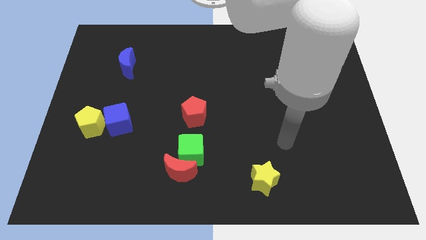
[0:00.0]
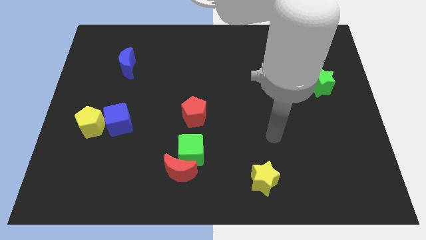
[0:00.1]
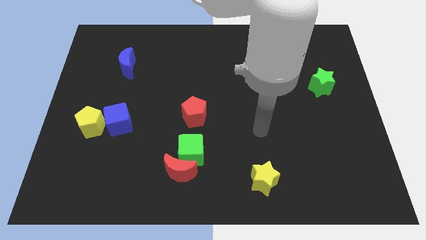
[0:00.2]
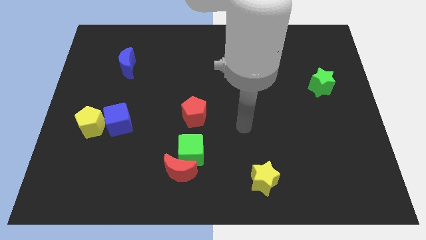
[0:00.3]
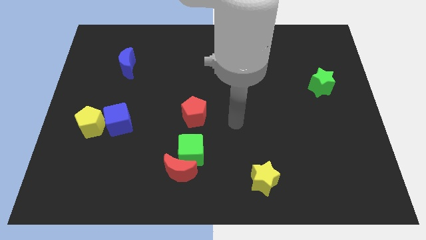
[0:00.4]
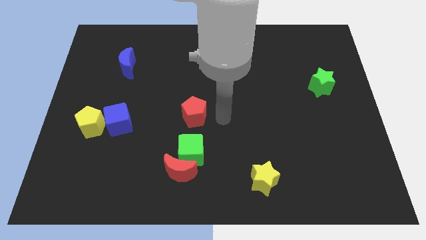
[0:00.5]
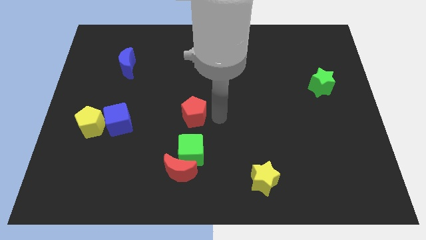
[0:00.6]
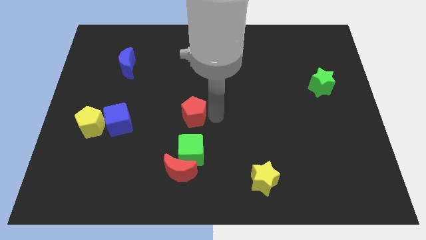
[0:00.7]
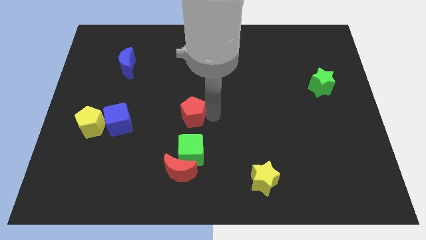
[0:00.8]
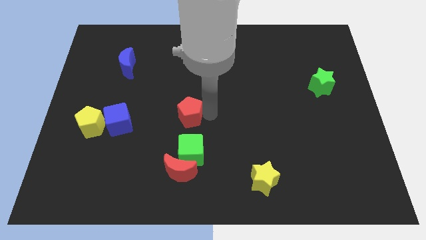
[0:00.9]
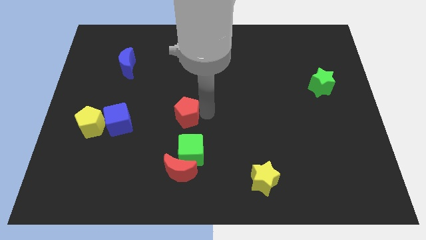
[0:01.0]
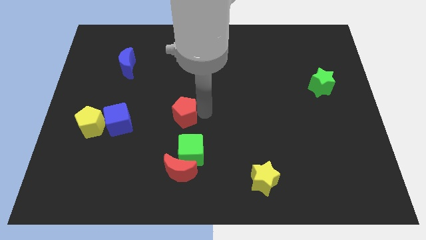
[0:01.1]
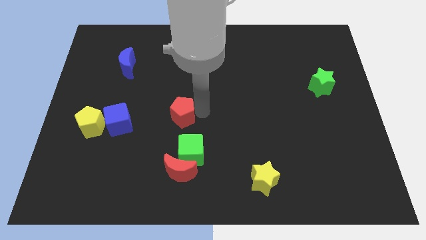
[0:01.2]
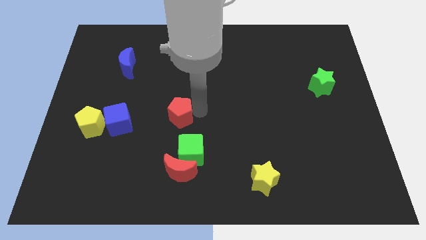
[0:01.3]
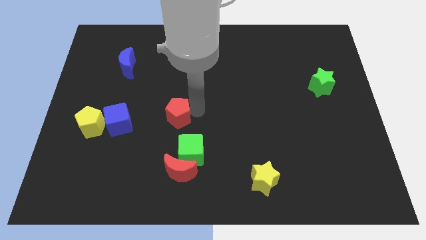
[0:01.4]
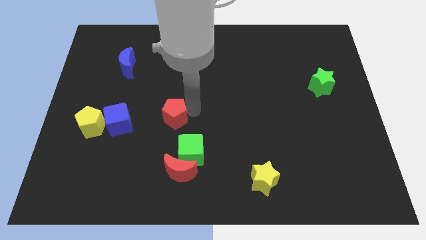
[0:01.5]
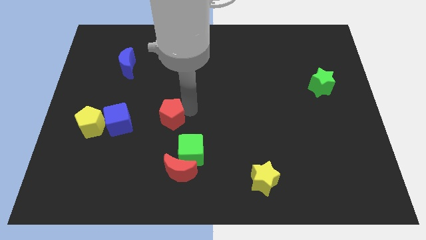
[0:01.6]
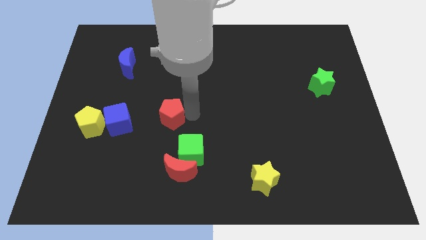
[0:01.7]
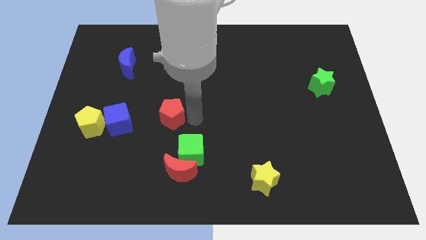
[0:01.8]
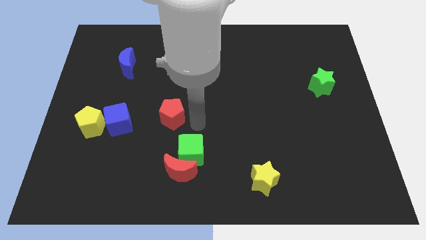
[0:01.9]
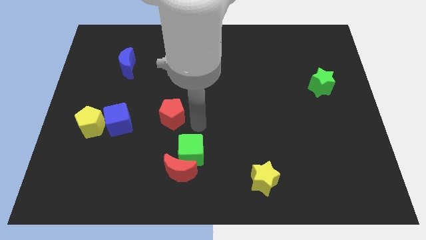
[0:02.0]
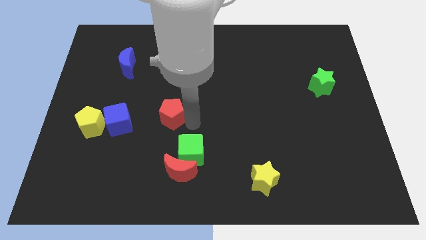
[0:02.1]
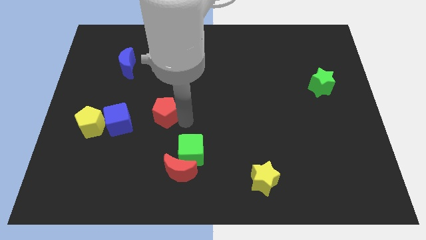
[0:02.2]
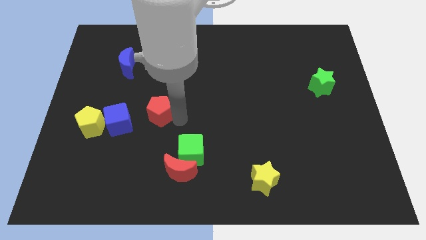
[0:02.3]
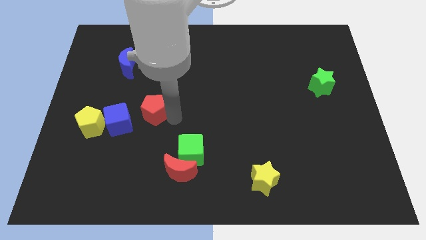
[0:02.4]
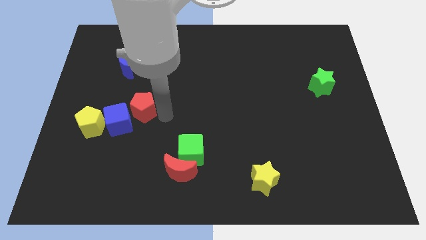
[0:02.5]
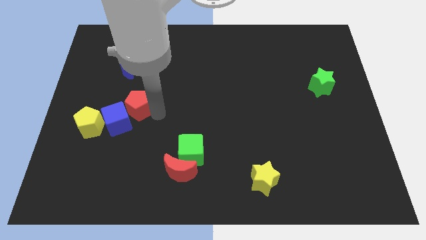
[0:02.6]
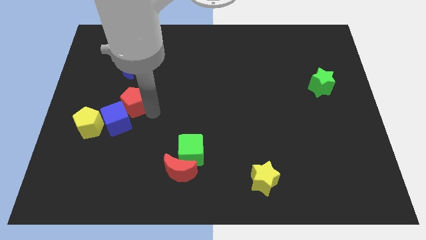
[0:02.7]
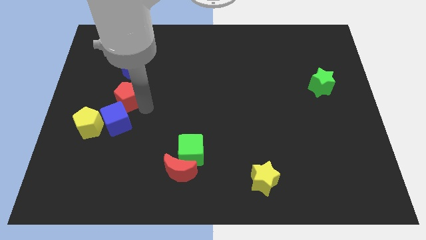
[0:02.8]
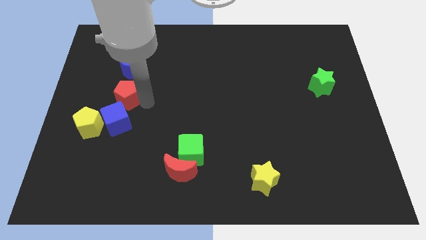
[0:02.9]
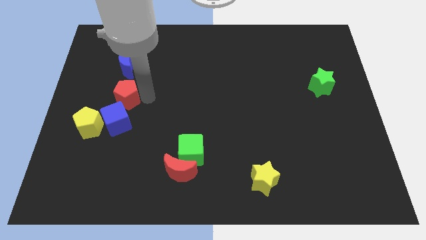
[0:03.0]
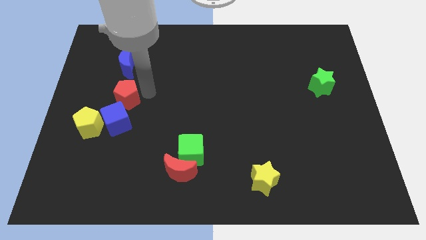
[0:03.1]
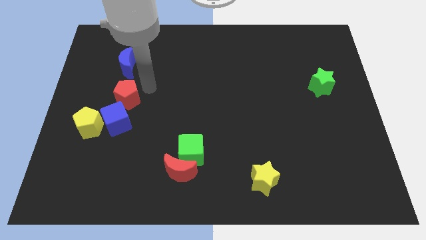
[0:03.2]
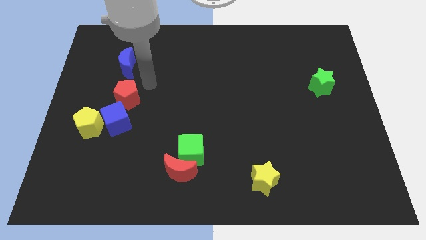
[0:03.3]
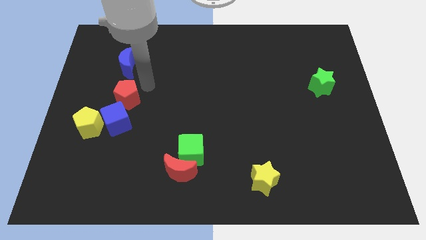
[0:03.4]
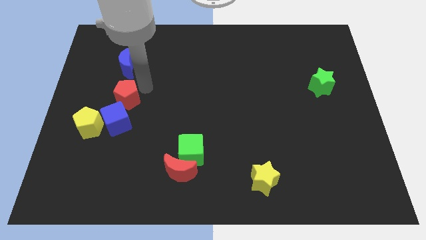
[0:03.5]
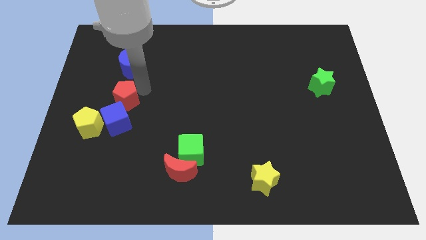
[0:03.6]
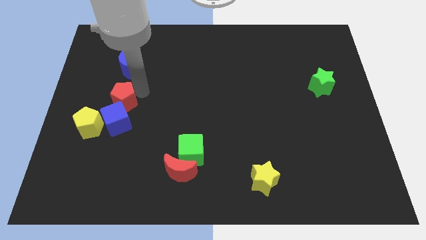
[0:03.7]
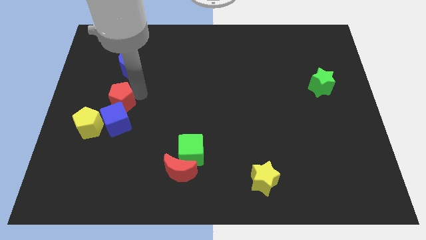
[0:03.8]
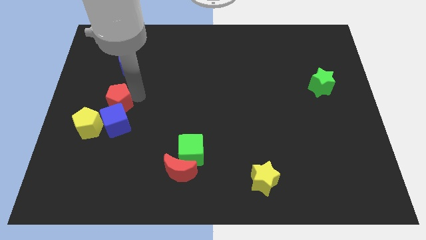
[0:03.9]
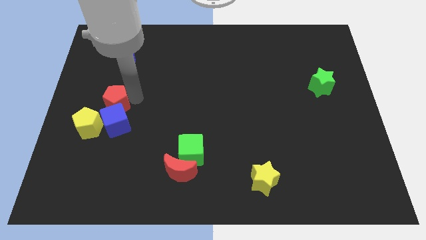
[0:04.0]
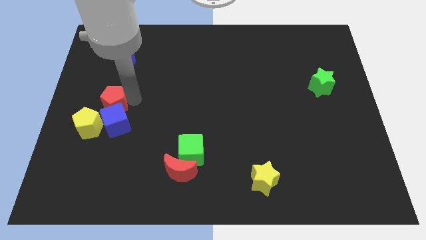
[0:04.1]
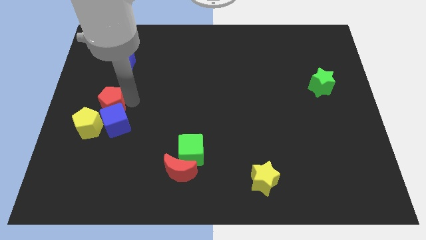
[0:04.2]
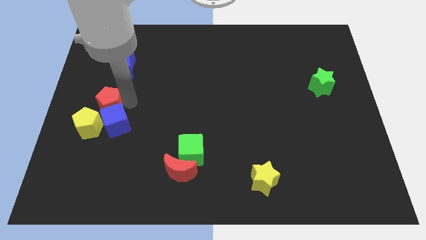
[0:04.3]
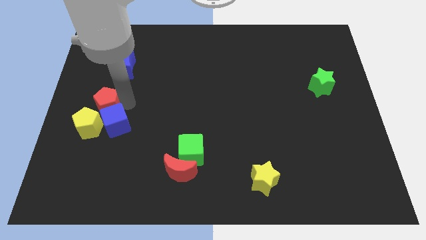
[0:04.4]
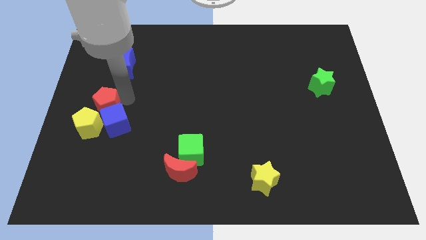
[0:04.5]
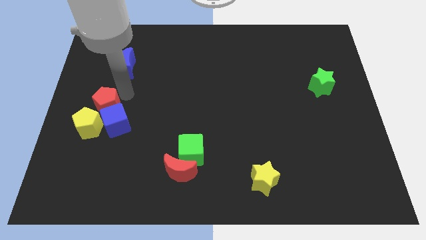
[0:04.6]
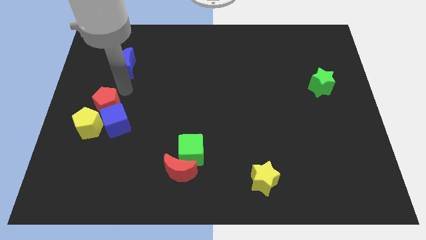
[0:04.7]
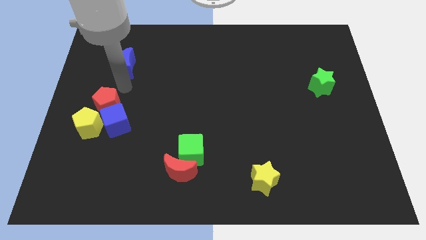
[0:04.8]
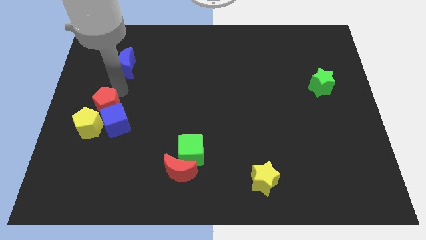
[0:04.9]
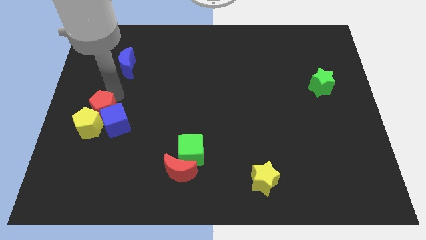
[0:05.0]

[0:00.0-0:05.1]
slide the red pentagon to the yellow pentagon
